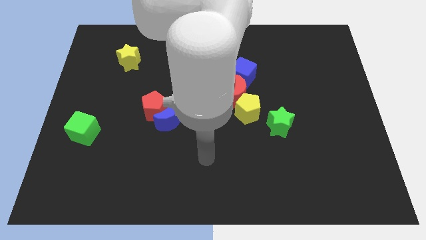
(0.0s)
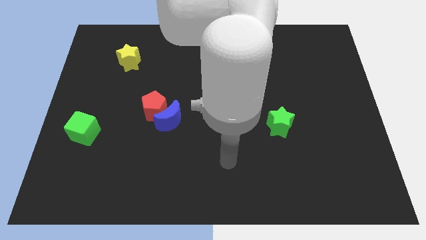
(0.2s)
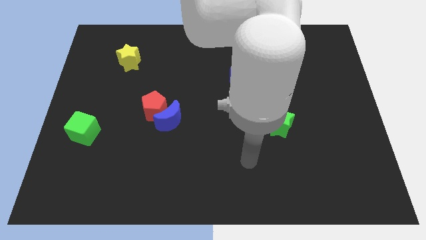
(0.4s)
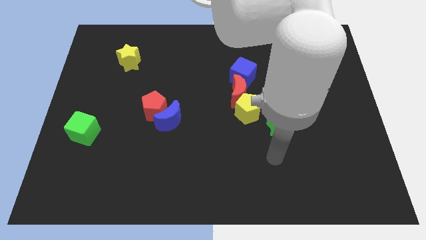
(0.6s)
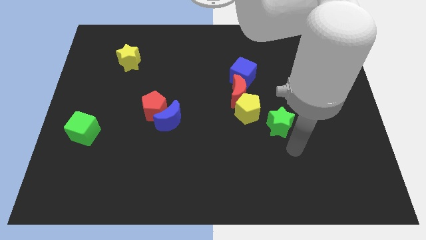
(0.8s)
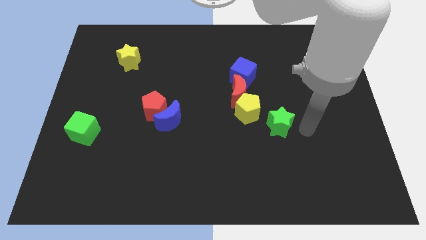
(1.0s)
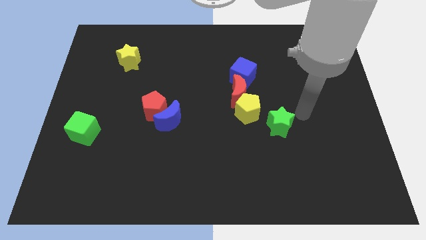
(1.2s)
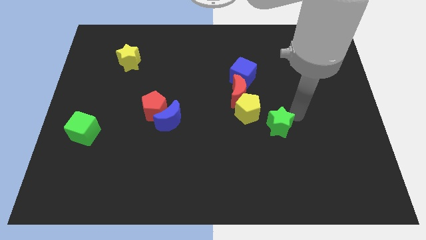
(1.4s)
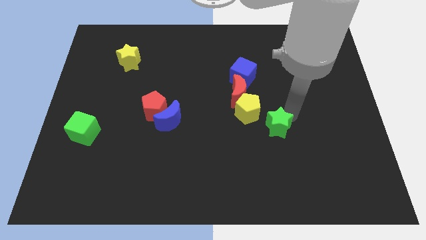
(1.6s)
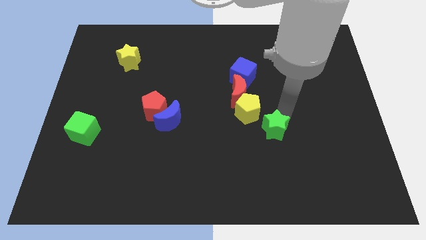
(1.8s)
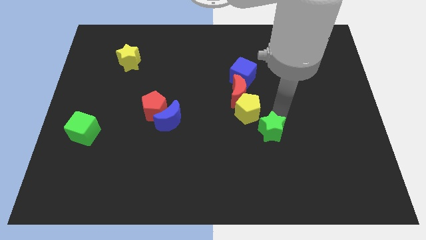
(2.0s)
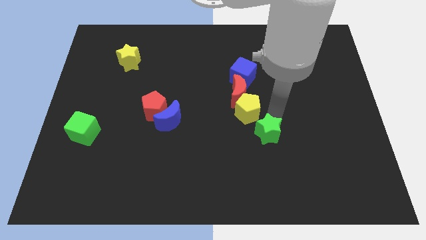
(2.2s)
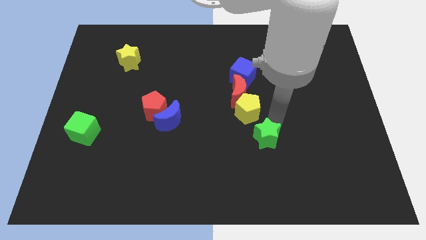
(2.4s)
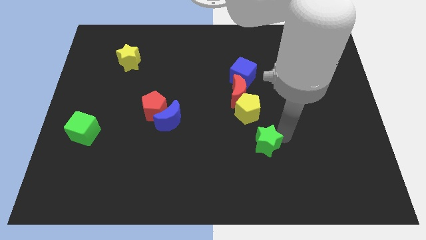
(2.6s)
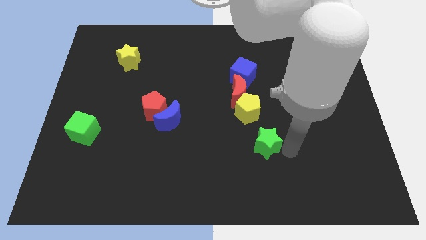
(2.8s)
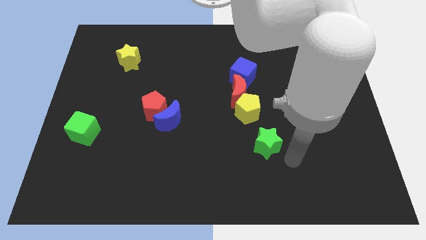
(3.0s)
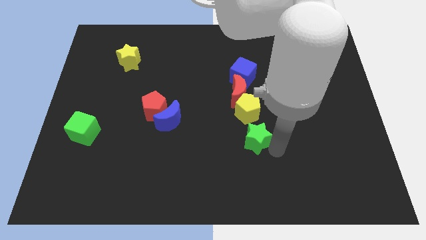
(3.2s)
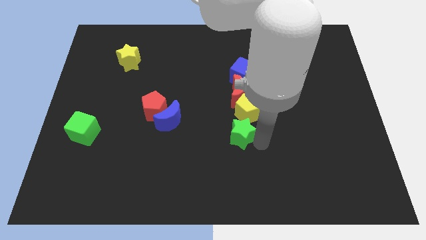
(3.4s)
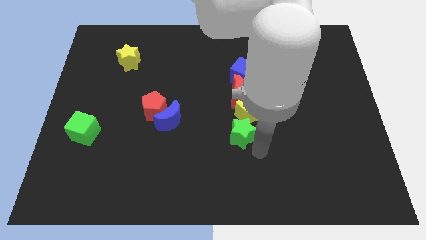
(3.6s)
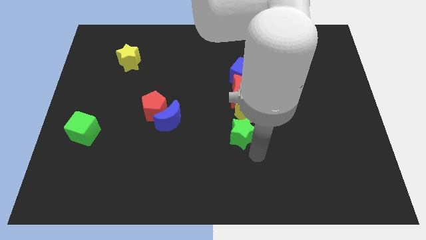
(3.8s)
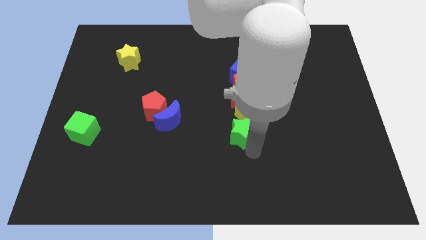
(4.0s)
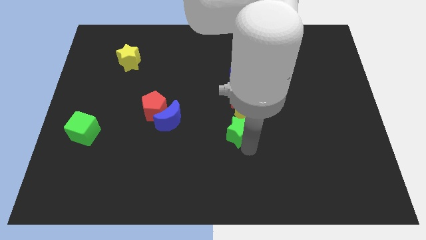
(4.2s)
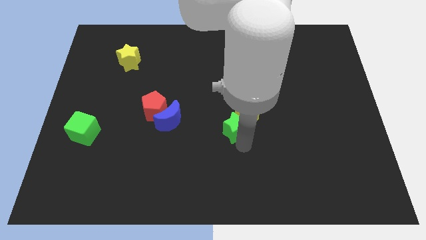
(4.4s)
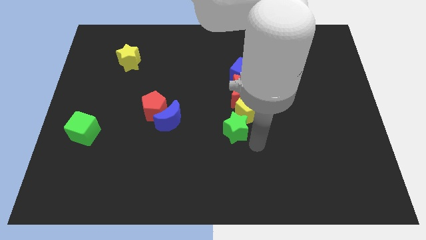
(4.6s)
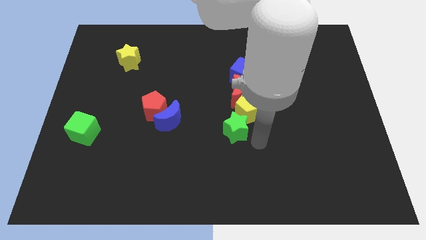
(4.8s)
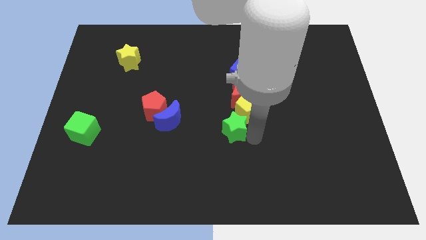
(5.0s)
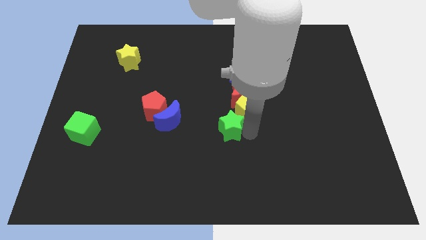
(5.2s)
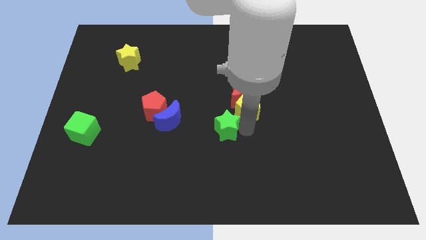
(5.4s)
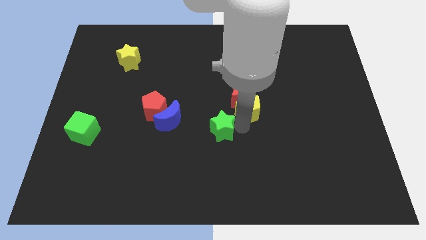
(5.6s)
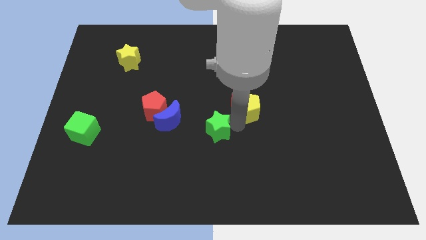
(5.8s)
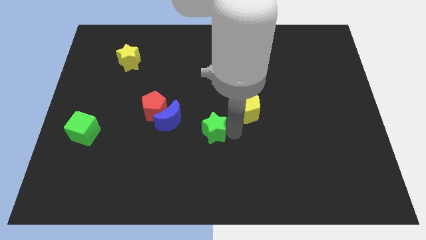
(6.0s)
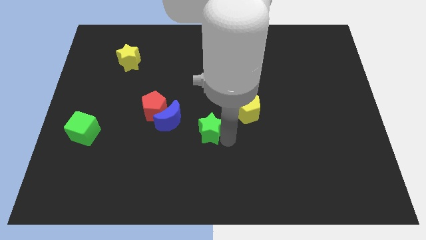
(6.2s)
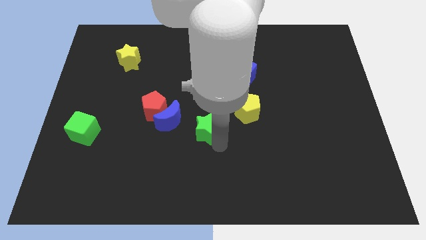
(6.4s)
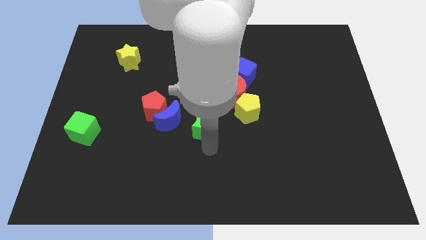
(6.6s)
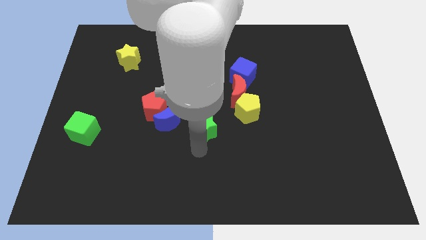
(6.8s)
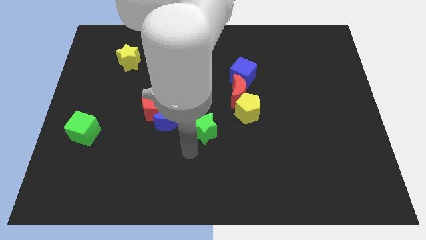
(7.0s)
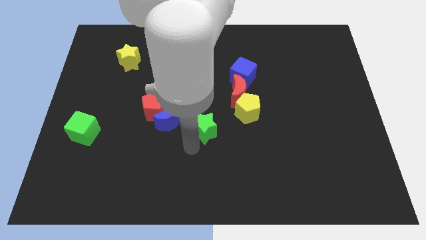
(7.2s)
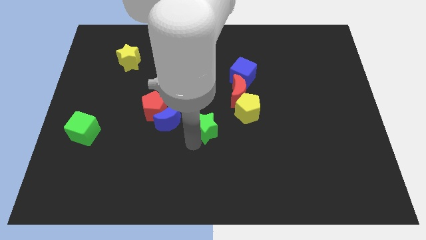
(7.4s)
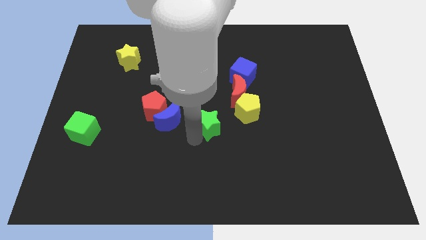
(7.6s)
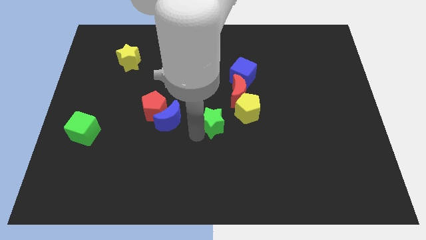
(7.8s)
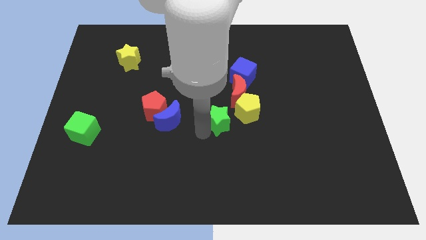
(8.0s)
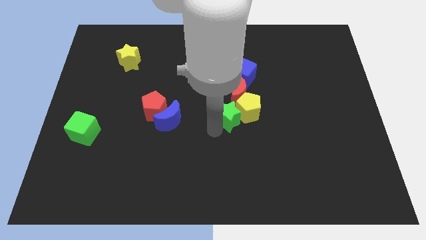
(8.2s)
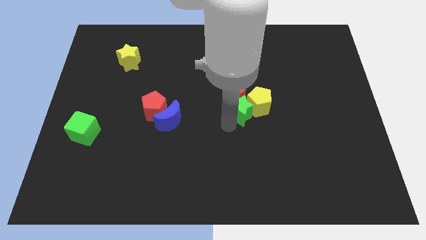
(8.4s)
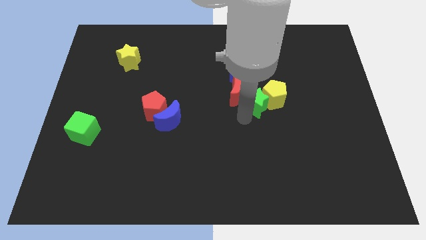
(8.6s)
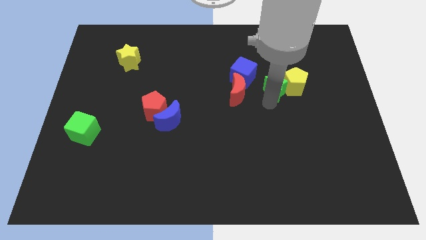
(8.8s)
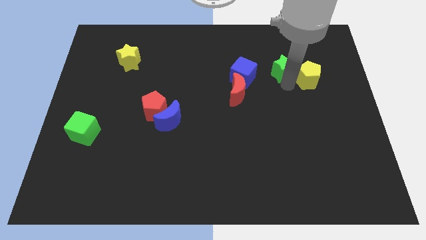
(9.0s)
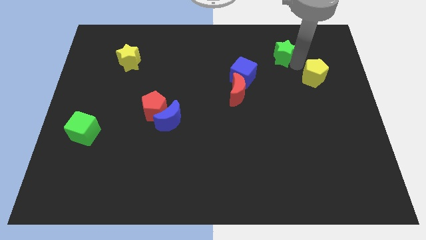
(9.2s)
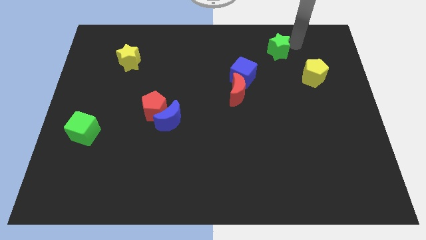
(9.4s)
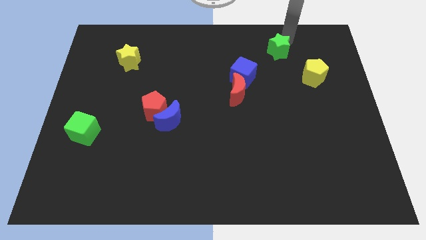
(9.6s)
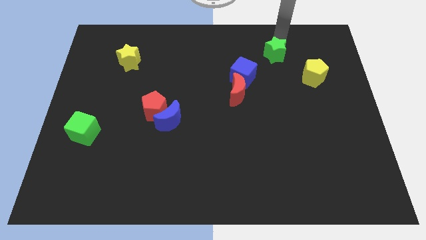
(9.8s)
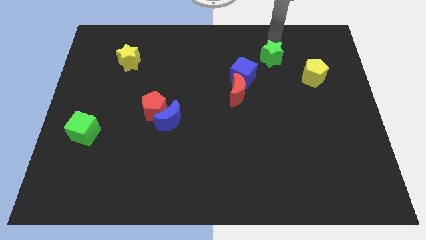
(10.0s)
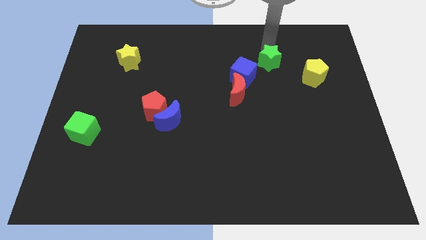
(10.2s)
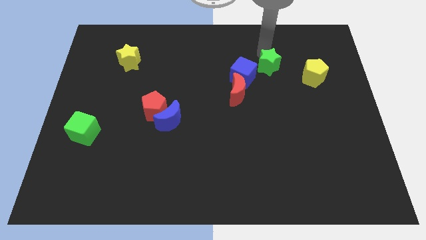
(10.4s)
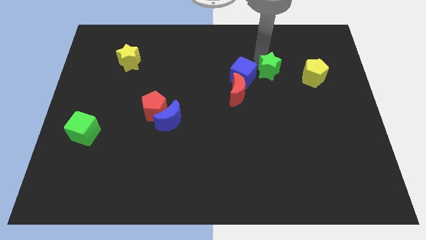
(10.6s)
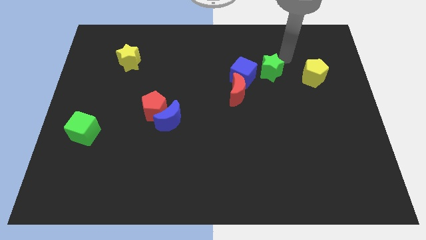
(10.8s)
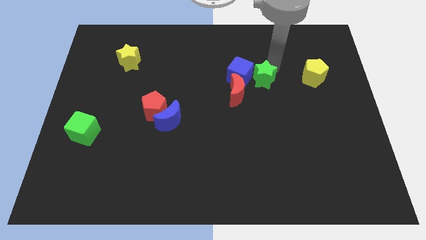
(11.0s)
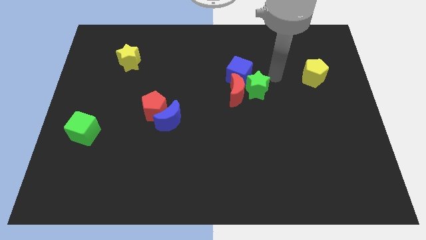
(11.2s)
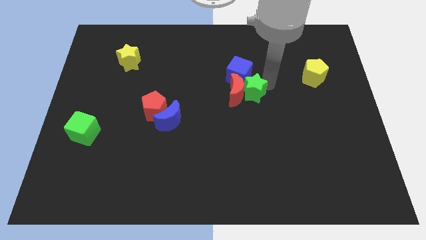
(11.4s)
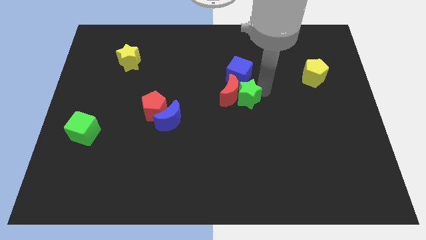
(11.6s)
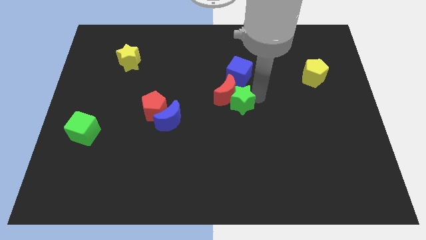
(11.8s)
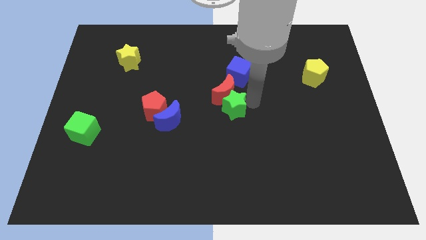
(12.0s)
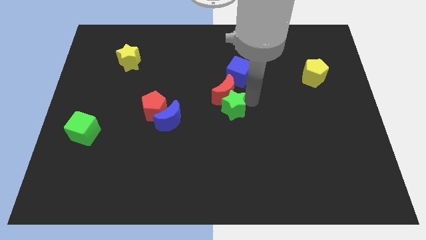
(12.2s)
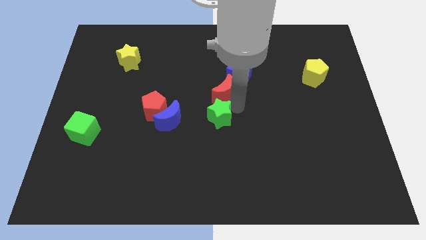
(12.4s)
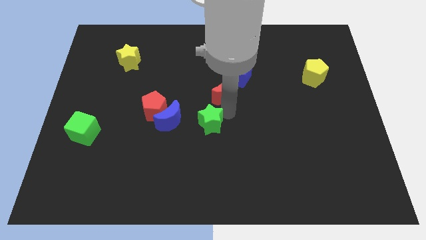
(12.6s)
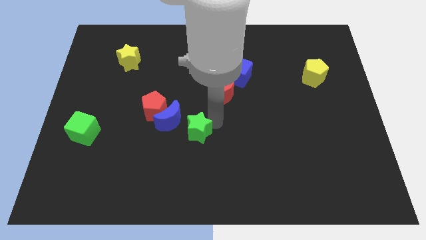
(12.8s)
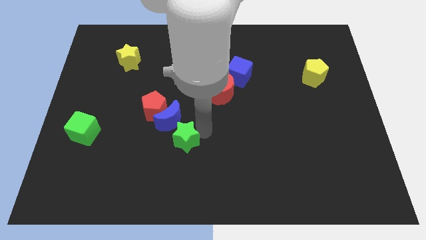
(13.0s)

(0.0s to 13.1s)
push the green star to the blue moon

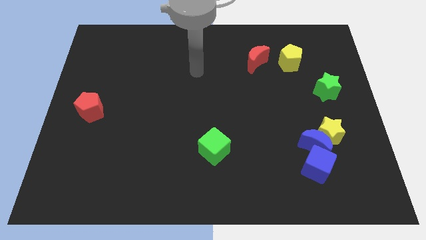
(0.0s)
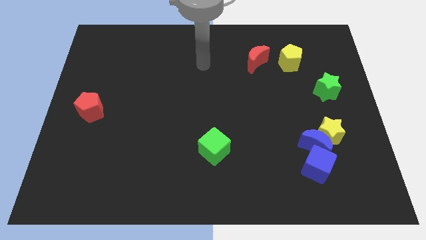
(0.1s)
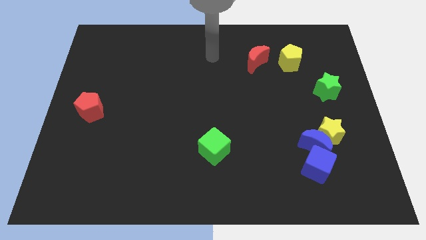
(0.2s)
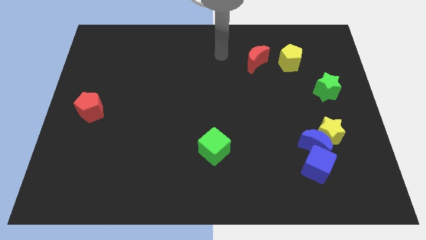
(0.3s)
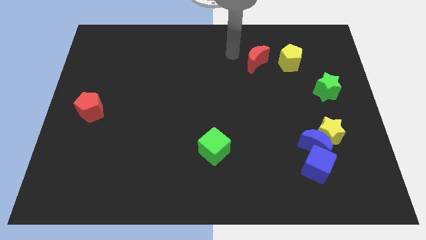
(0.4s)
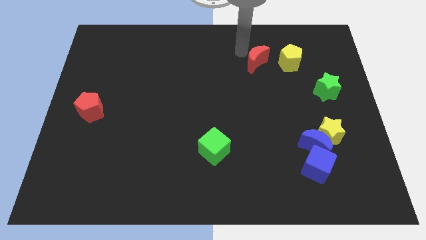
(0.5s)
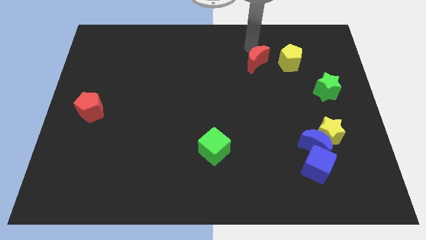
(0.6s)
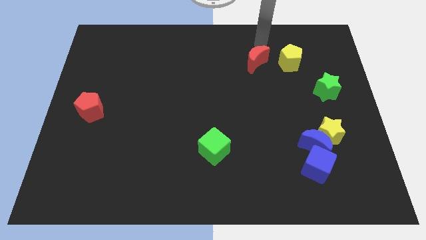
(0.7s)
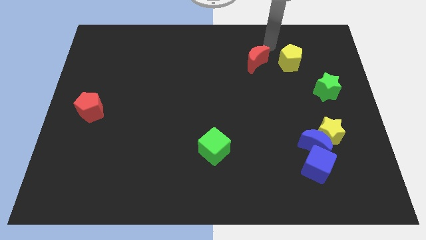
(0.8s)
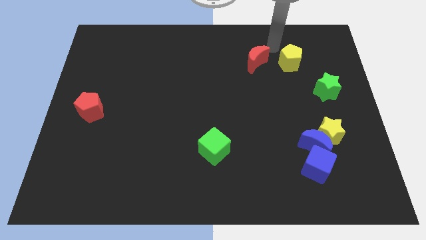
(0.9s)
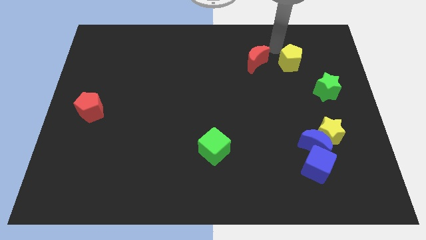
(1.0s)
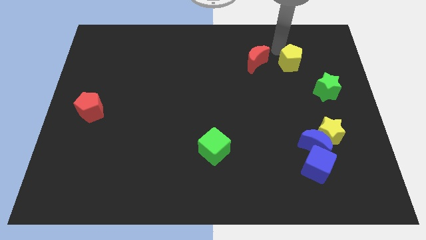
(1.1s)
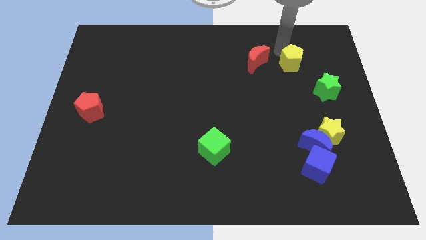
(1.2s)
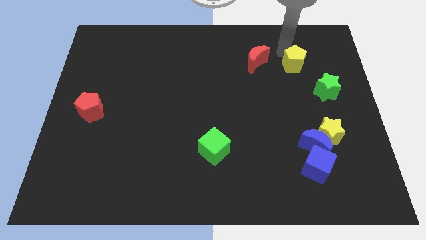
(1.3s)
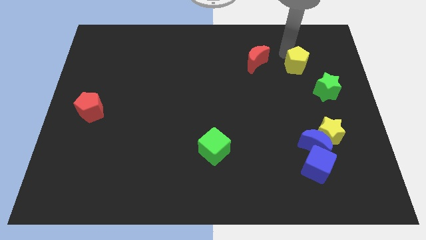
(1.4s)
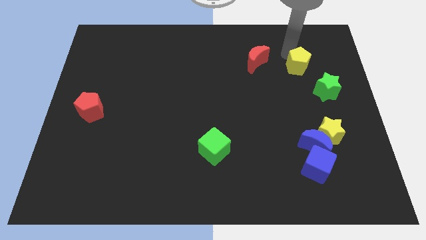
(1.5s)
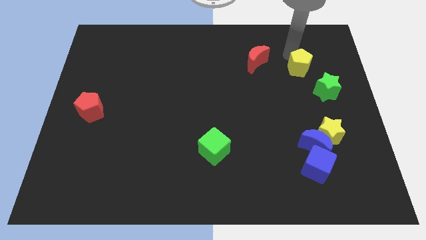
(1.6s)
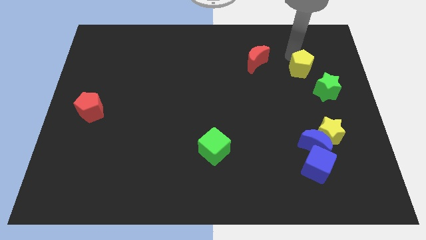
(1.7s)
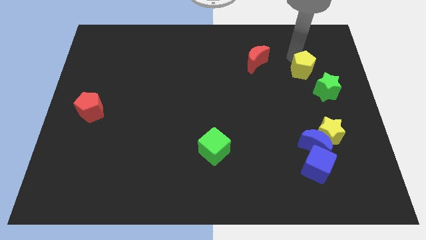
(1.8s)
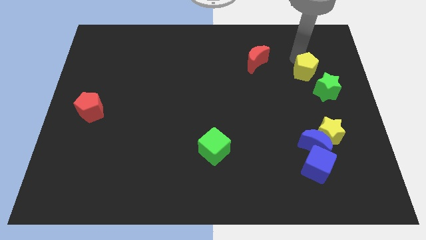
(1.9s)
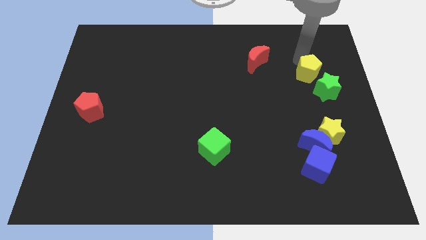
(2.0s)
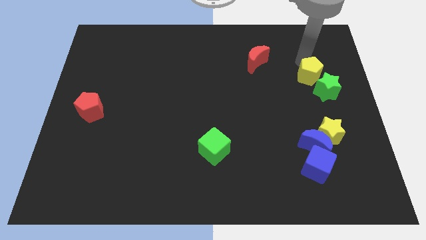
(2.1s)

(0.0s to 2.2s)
put the yellow pentagon to the green star
